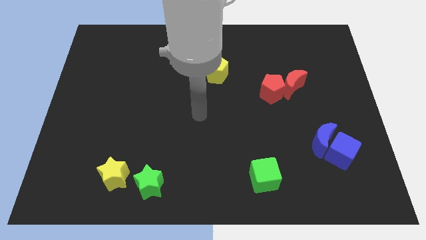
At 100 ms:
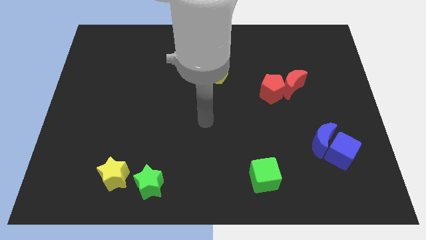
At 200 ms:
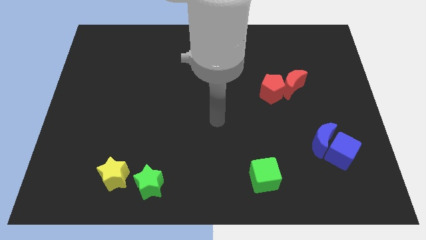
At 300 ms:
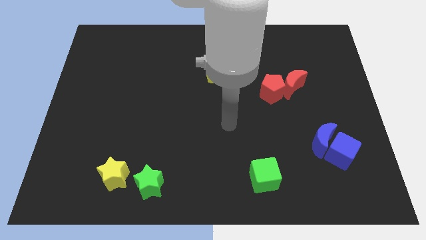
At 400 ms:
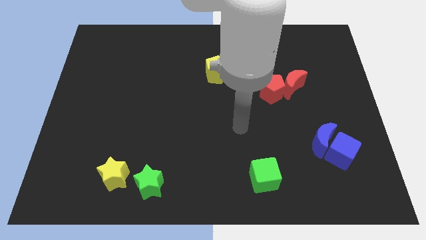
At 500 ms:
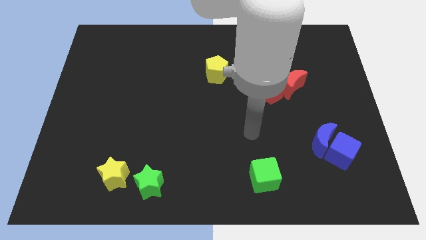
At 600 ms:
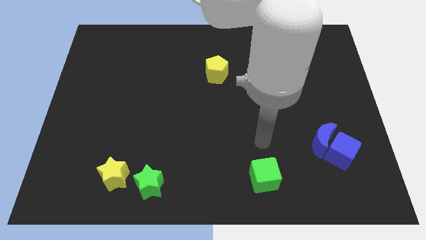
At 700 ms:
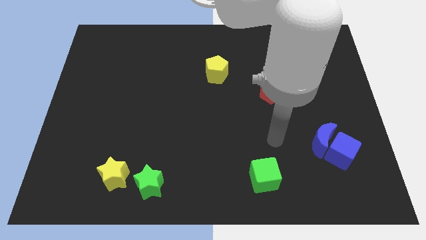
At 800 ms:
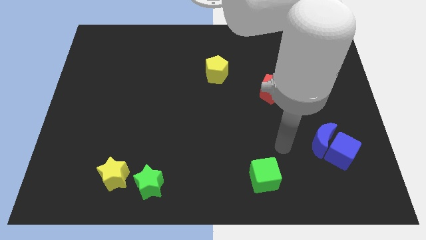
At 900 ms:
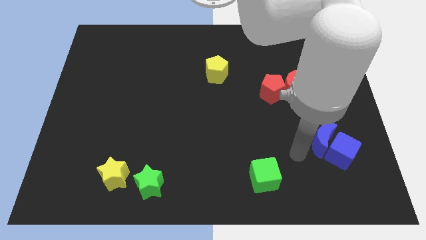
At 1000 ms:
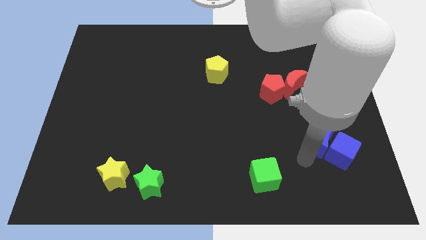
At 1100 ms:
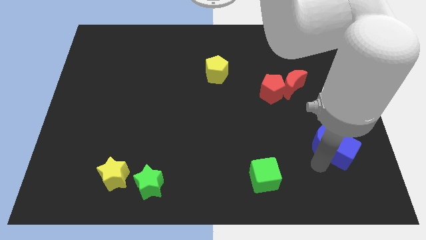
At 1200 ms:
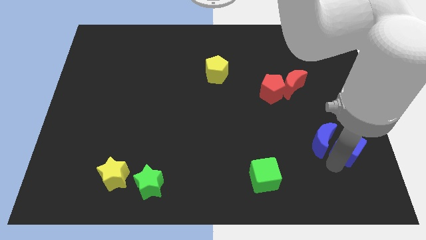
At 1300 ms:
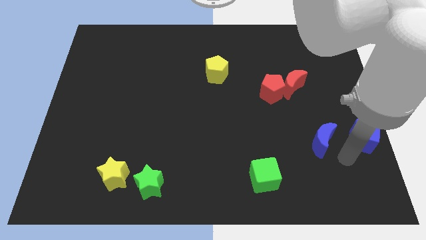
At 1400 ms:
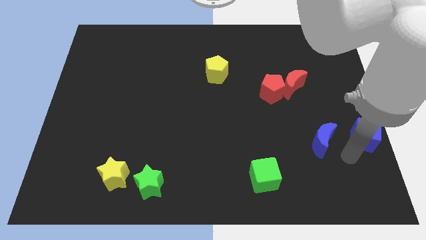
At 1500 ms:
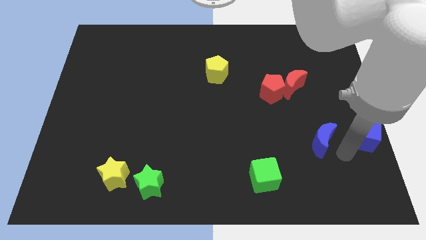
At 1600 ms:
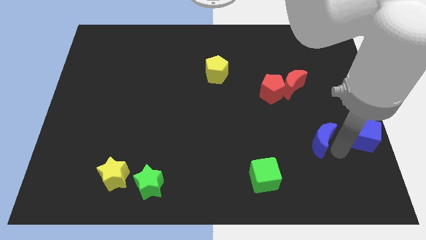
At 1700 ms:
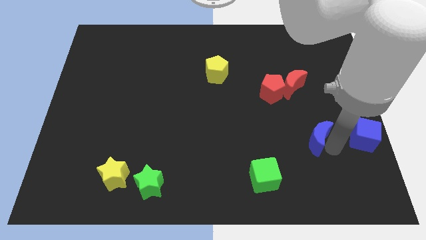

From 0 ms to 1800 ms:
move the blue moon away from the blue cube

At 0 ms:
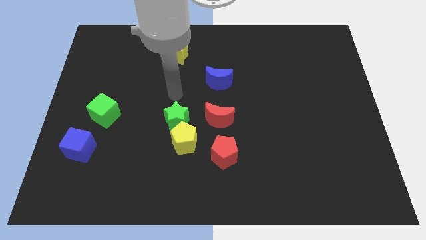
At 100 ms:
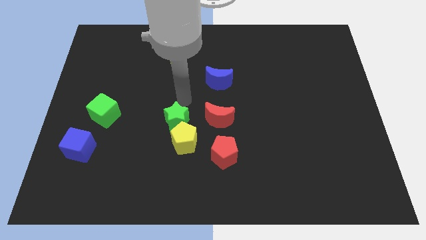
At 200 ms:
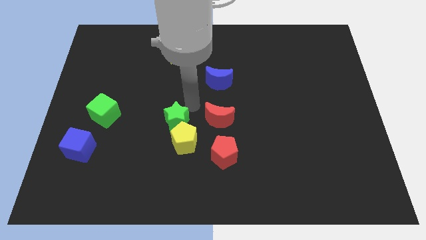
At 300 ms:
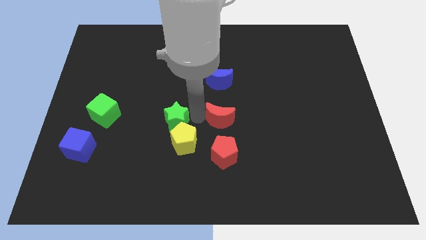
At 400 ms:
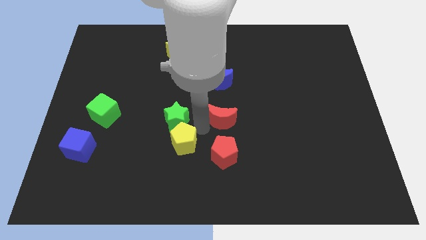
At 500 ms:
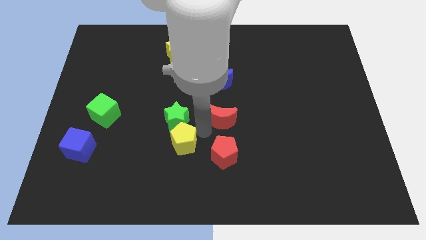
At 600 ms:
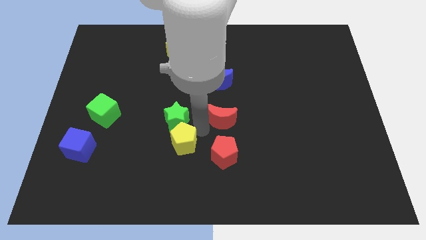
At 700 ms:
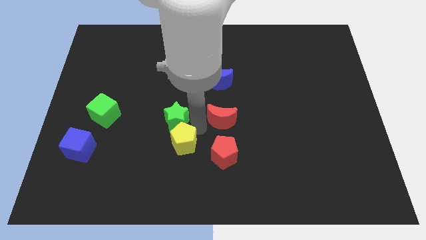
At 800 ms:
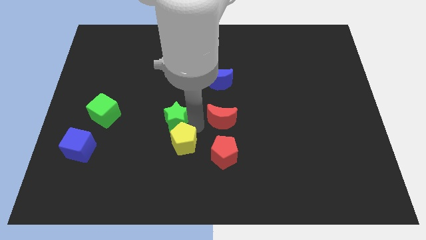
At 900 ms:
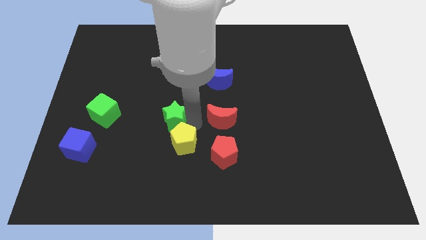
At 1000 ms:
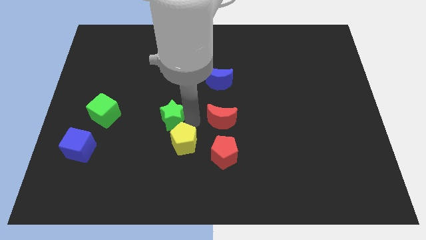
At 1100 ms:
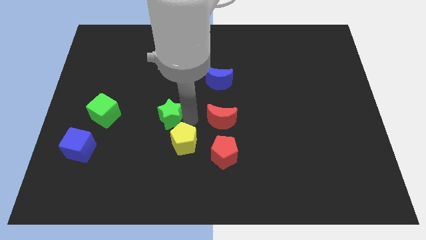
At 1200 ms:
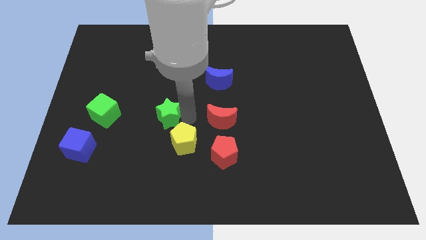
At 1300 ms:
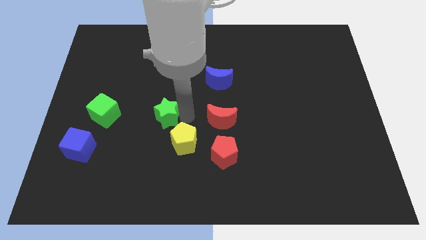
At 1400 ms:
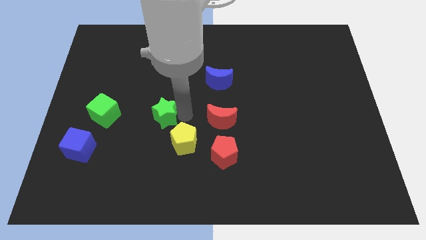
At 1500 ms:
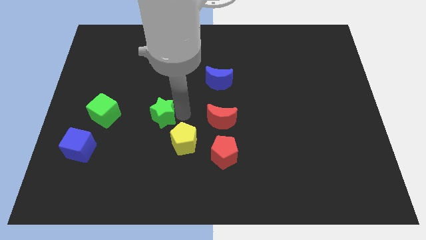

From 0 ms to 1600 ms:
move the green star away from the yellow pentagon and red moon

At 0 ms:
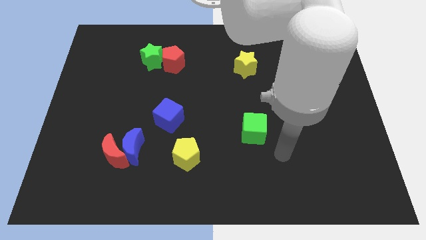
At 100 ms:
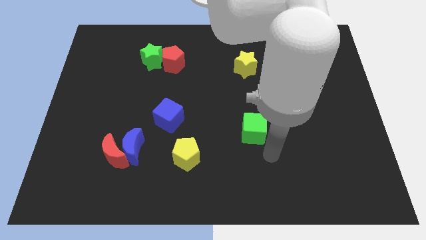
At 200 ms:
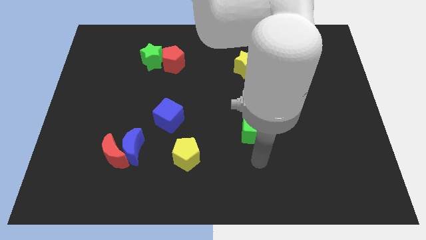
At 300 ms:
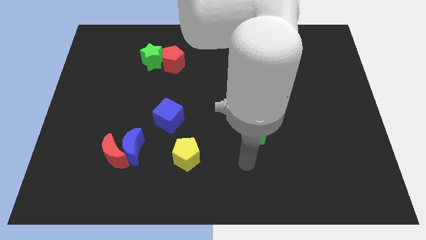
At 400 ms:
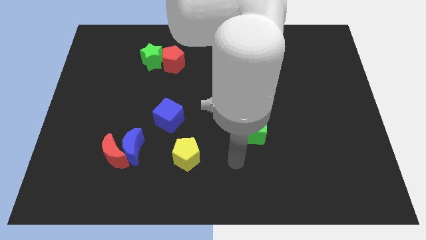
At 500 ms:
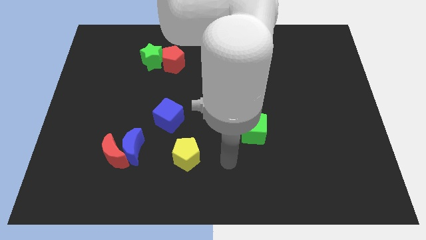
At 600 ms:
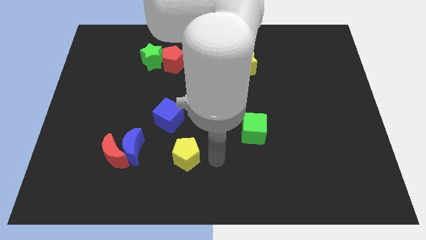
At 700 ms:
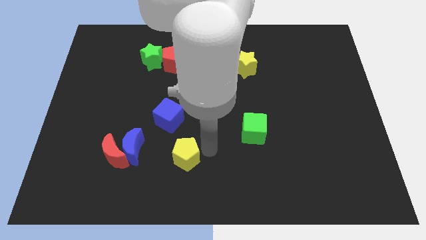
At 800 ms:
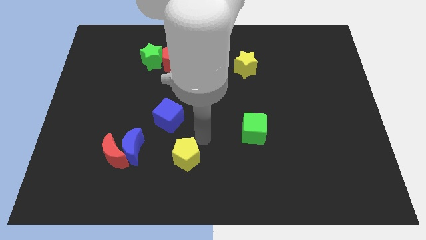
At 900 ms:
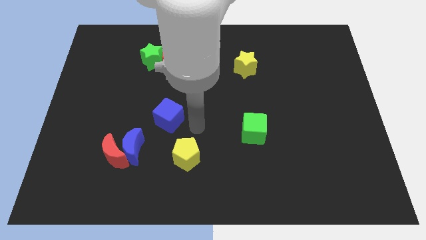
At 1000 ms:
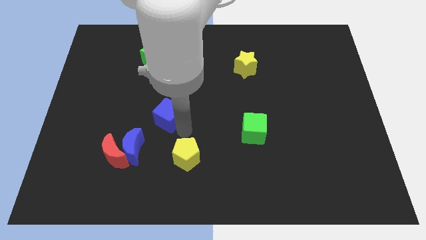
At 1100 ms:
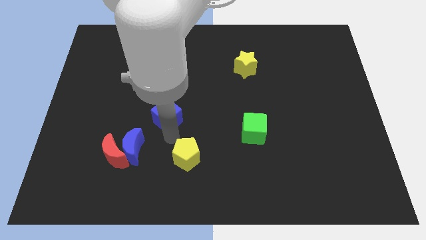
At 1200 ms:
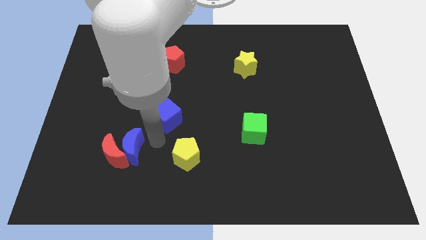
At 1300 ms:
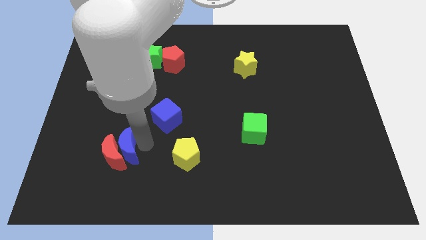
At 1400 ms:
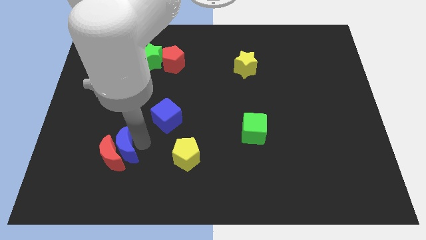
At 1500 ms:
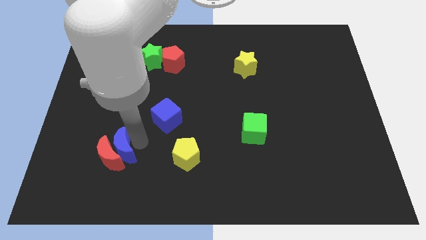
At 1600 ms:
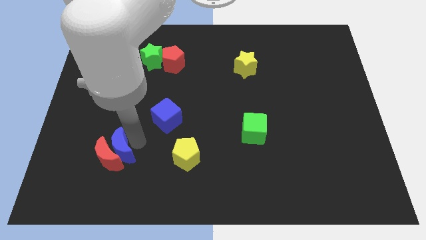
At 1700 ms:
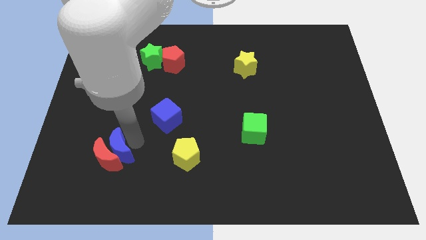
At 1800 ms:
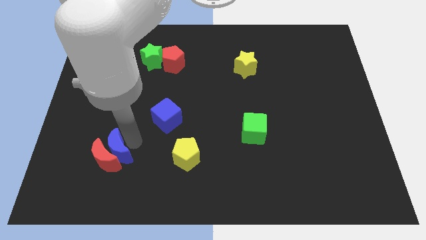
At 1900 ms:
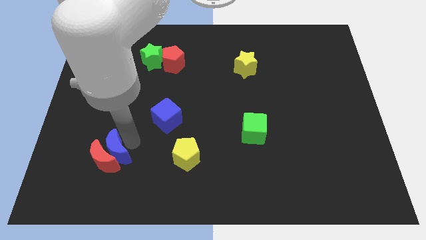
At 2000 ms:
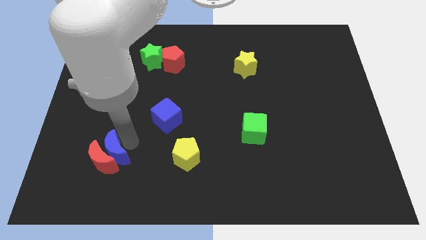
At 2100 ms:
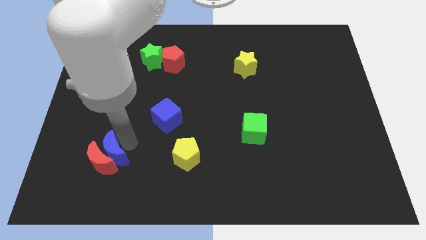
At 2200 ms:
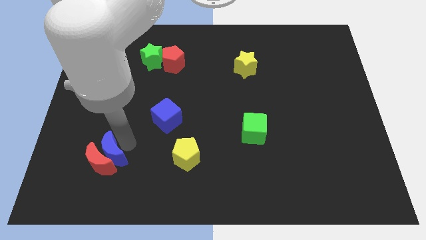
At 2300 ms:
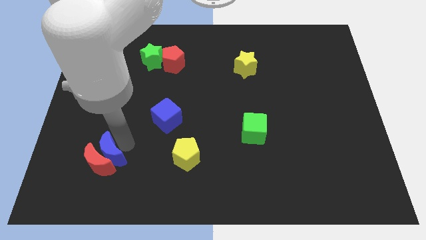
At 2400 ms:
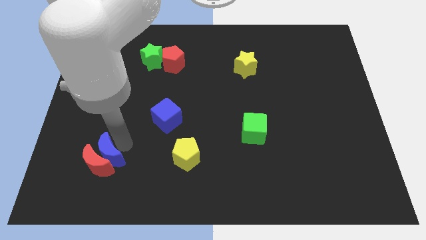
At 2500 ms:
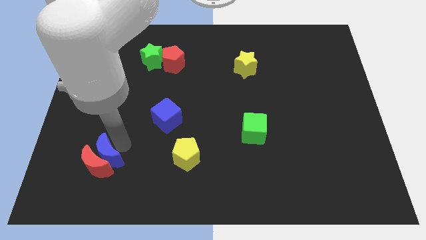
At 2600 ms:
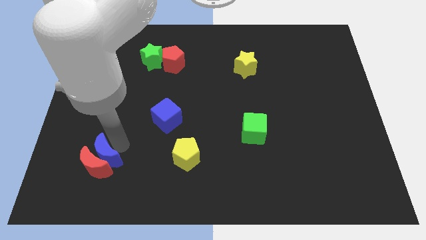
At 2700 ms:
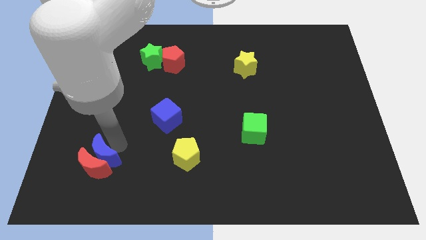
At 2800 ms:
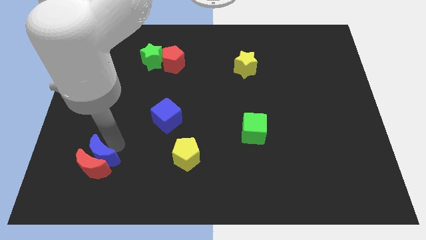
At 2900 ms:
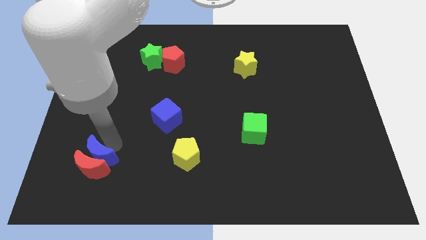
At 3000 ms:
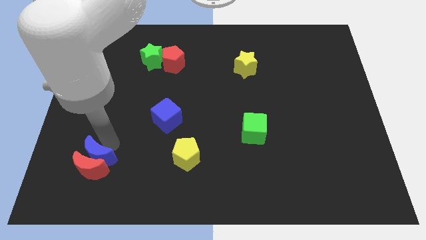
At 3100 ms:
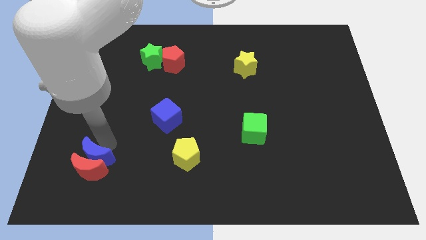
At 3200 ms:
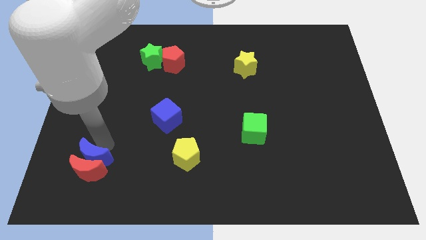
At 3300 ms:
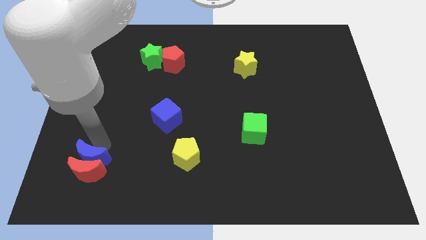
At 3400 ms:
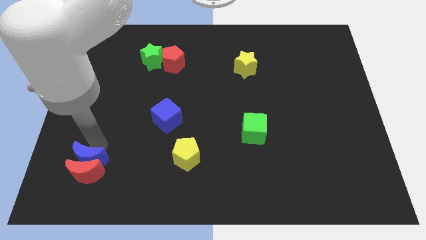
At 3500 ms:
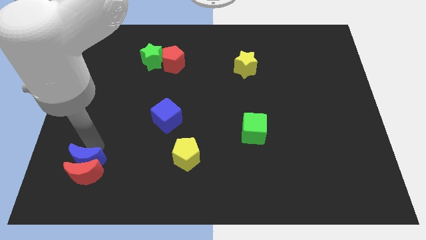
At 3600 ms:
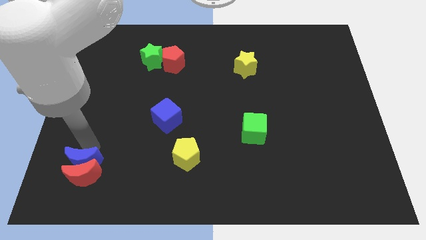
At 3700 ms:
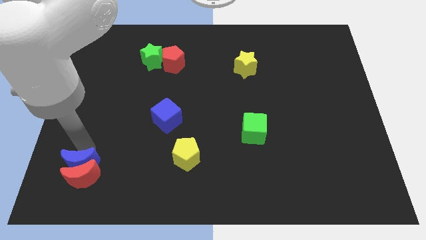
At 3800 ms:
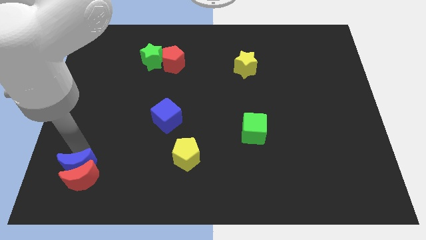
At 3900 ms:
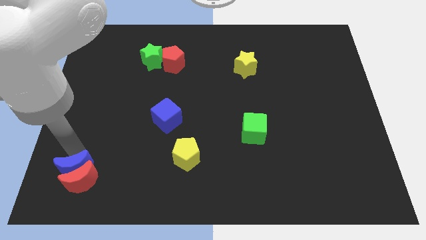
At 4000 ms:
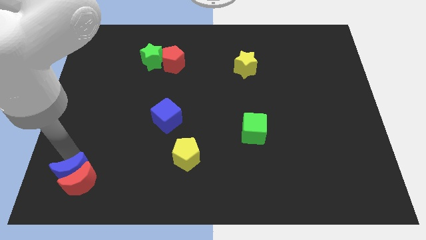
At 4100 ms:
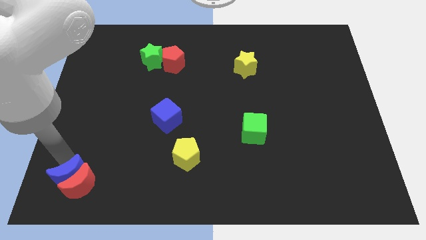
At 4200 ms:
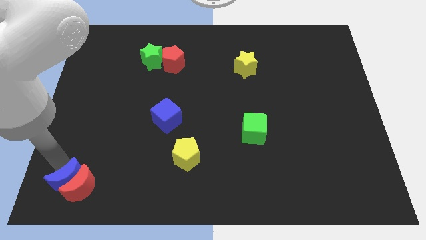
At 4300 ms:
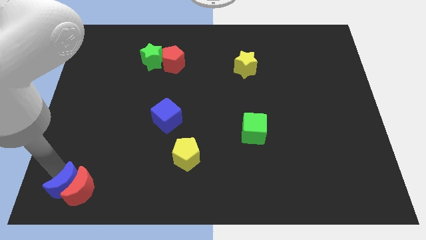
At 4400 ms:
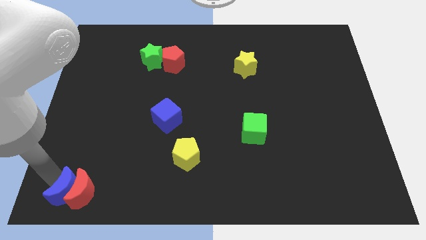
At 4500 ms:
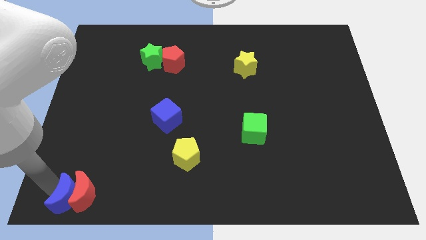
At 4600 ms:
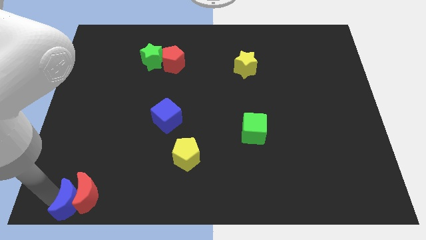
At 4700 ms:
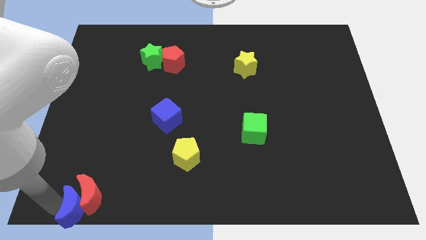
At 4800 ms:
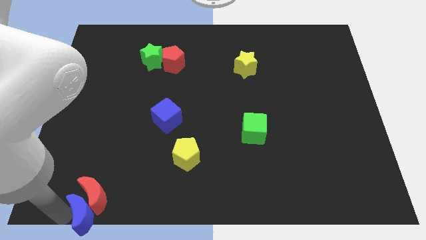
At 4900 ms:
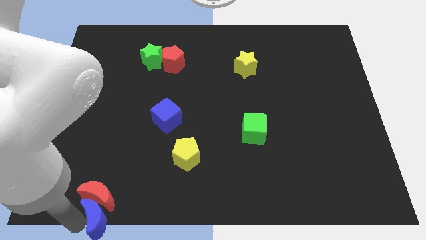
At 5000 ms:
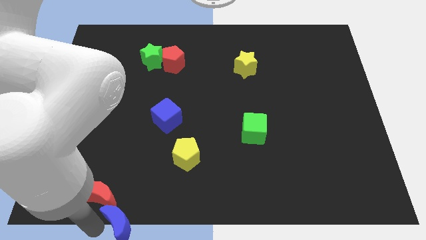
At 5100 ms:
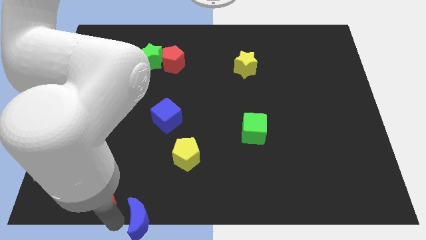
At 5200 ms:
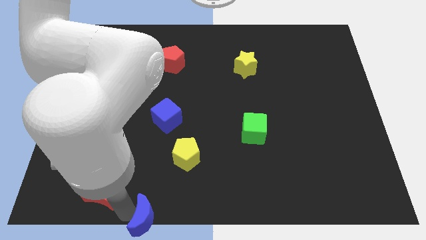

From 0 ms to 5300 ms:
separate the red moon from the blue moon

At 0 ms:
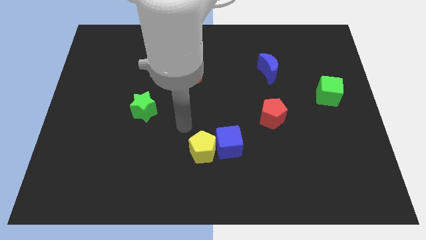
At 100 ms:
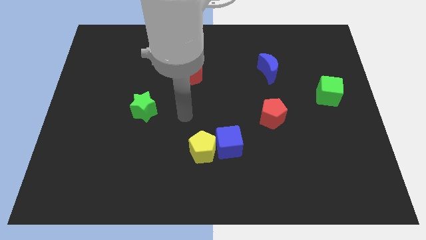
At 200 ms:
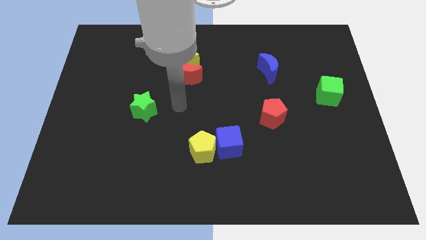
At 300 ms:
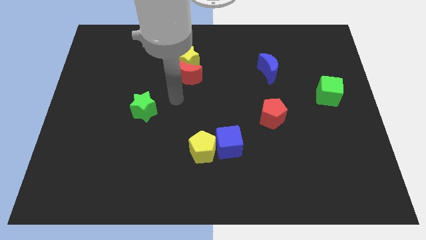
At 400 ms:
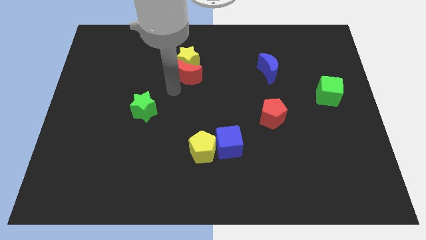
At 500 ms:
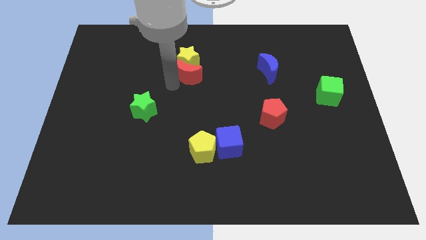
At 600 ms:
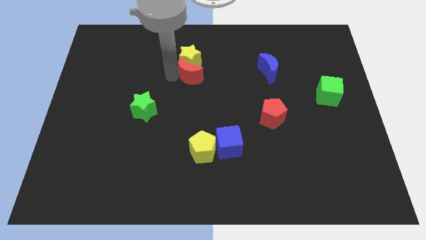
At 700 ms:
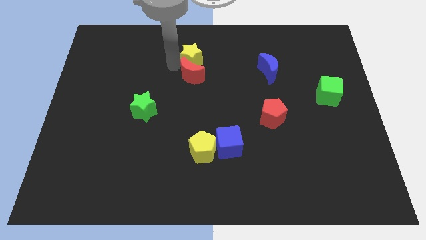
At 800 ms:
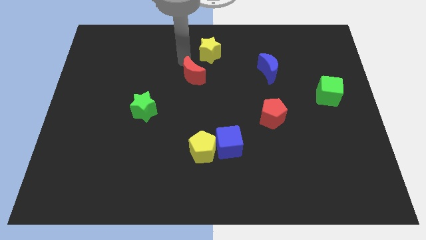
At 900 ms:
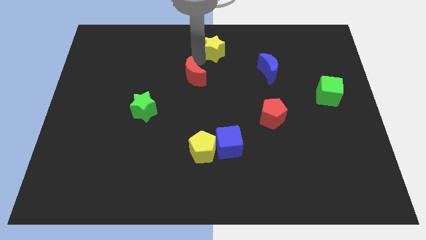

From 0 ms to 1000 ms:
pull the red moon apart from the yellow star
